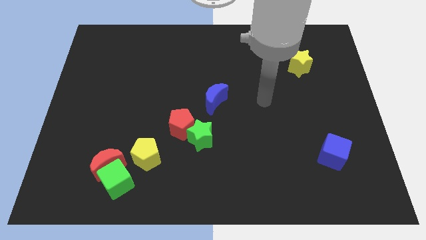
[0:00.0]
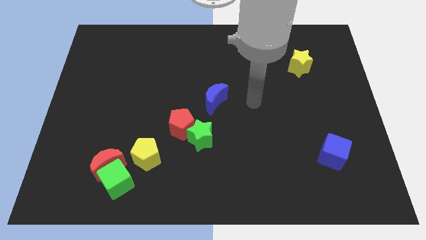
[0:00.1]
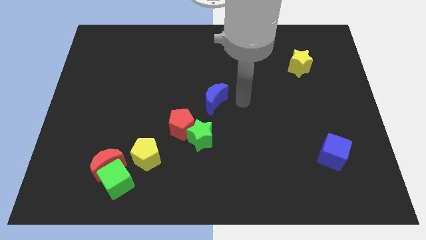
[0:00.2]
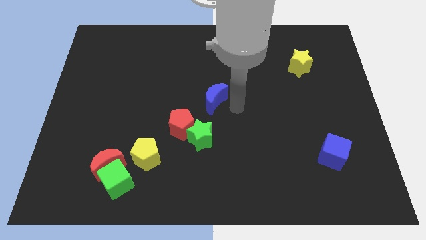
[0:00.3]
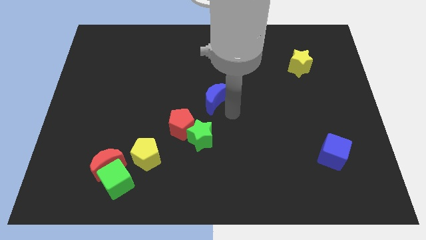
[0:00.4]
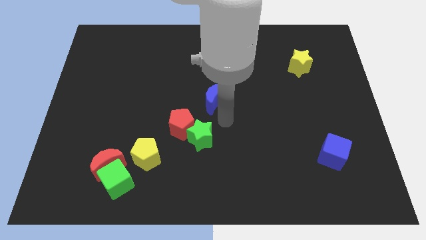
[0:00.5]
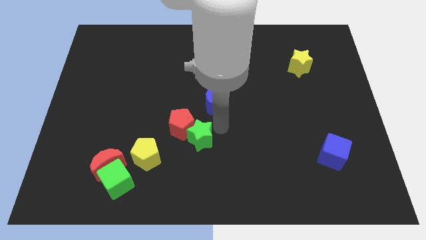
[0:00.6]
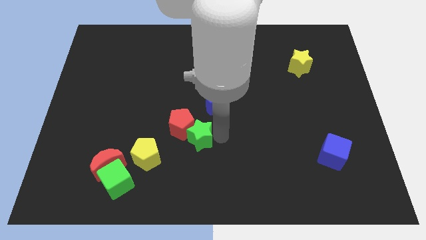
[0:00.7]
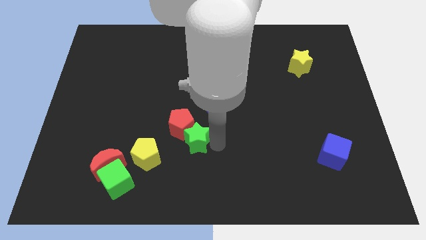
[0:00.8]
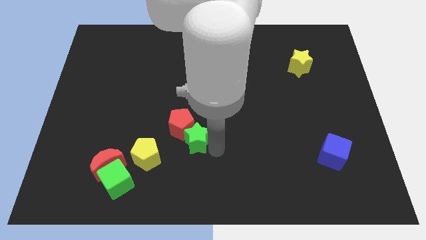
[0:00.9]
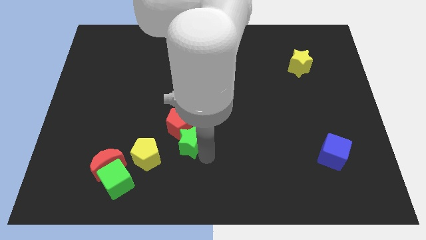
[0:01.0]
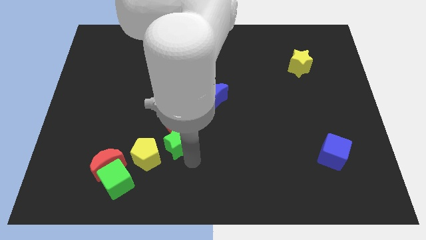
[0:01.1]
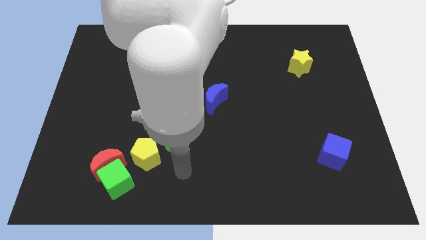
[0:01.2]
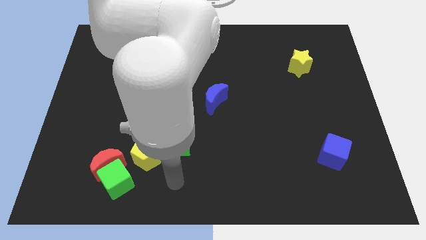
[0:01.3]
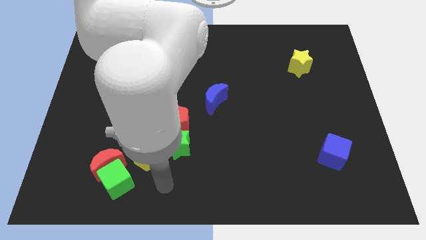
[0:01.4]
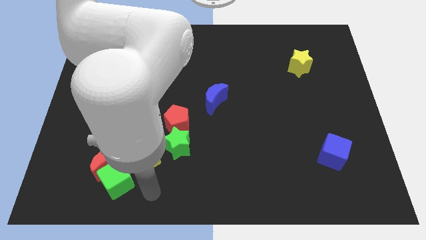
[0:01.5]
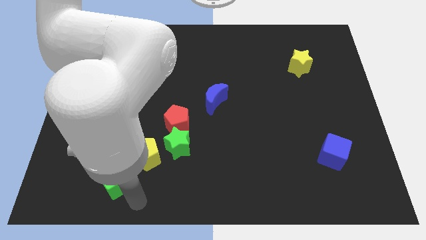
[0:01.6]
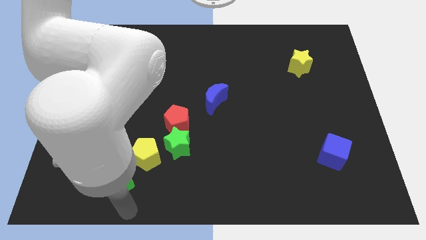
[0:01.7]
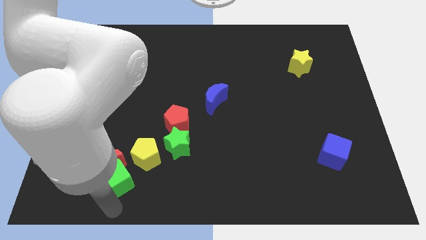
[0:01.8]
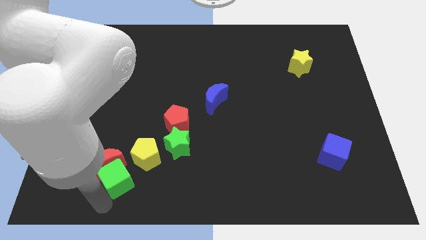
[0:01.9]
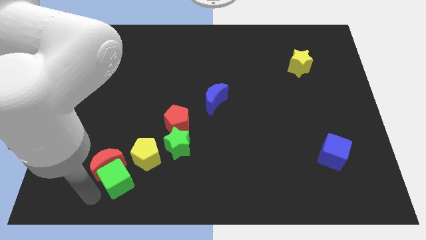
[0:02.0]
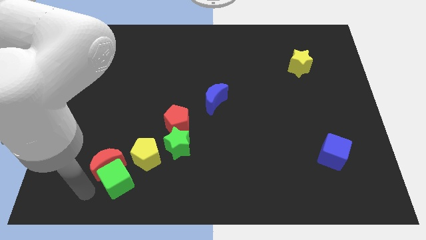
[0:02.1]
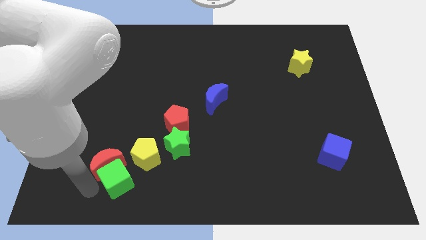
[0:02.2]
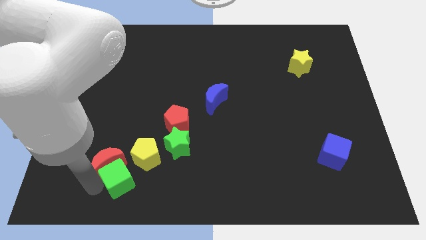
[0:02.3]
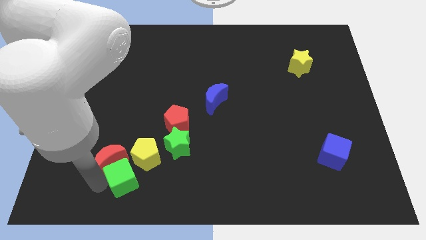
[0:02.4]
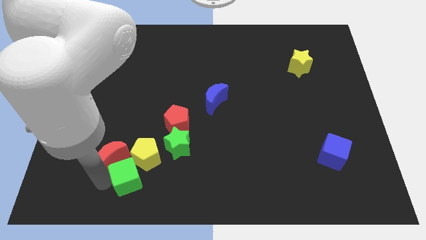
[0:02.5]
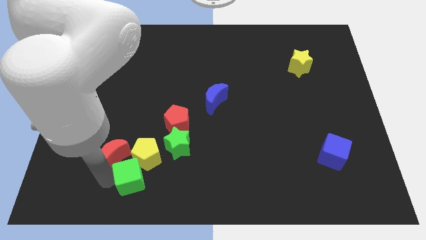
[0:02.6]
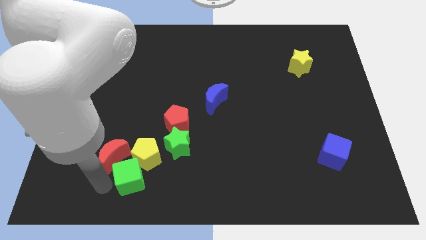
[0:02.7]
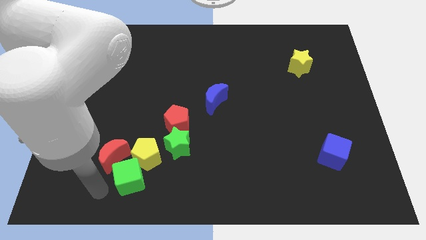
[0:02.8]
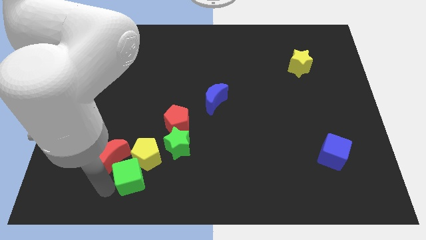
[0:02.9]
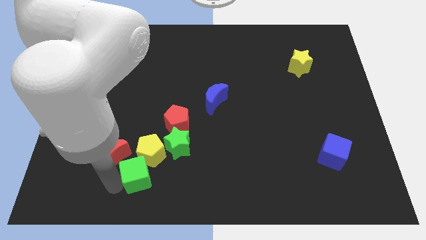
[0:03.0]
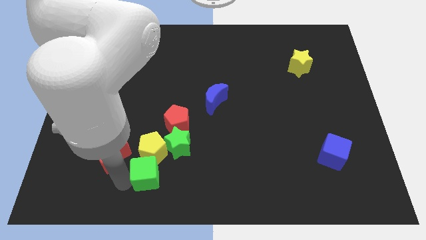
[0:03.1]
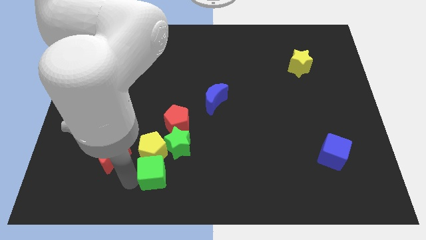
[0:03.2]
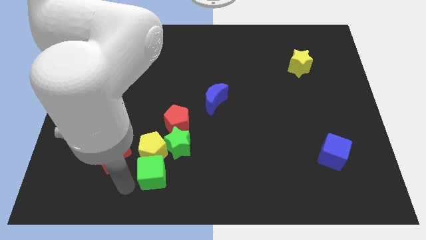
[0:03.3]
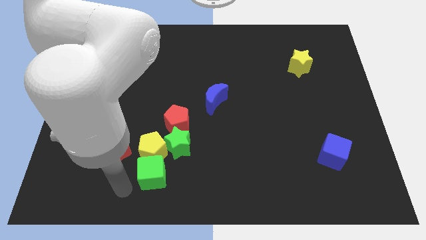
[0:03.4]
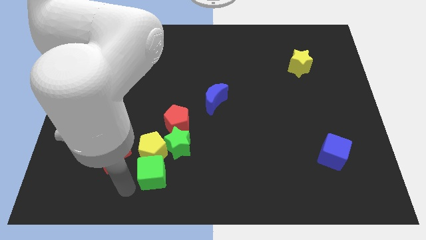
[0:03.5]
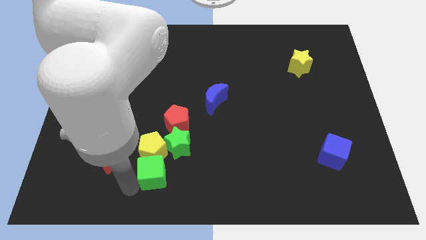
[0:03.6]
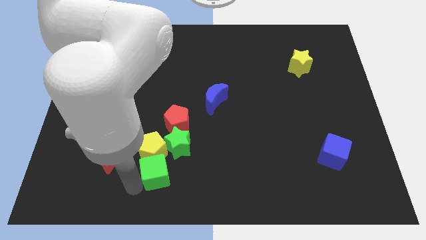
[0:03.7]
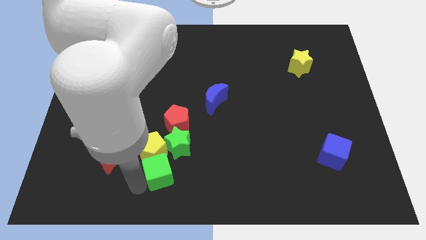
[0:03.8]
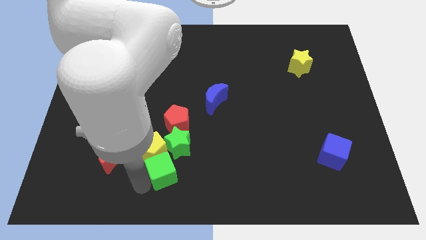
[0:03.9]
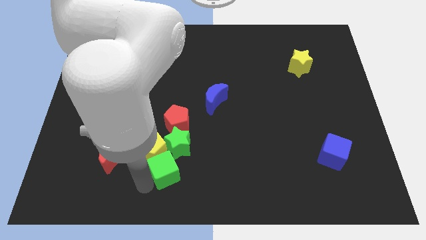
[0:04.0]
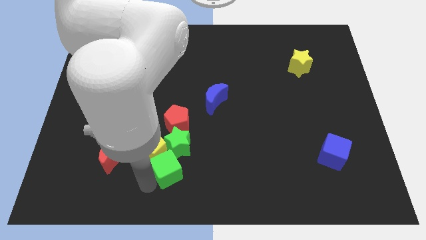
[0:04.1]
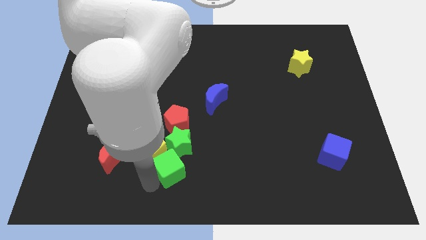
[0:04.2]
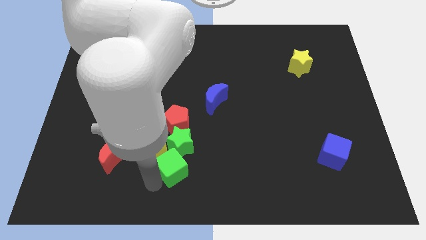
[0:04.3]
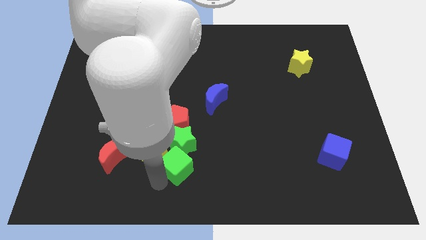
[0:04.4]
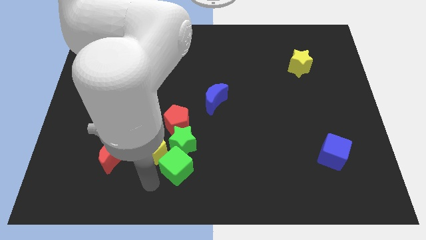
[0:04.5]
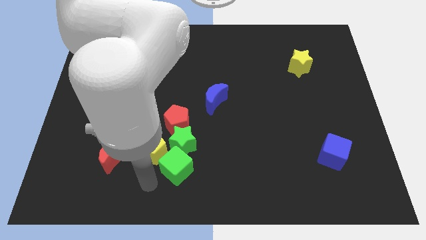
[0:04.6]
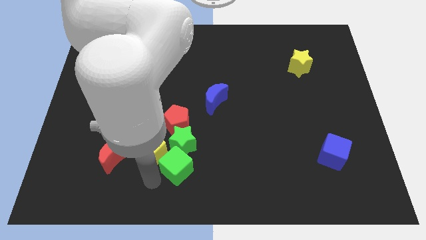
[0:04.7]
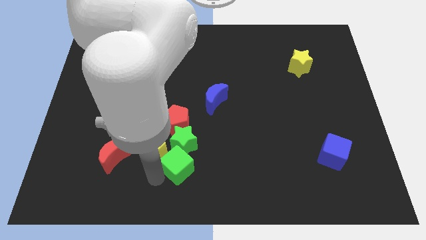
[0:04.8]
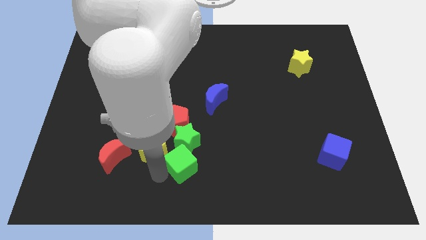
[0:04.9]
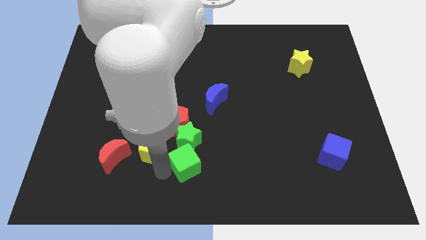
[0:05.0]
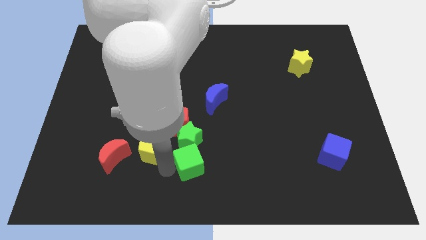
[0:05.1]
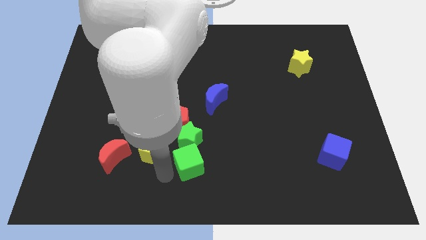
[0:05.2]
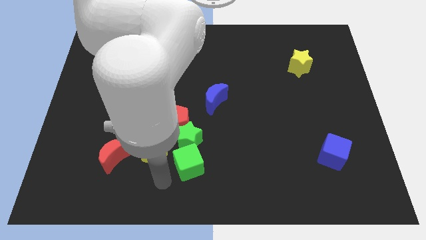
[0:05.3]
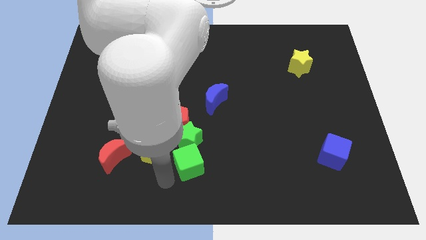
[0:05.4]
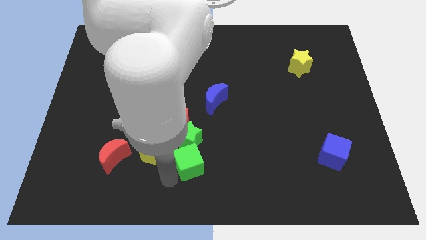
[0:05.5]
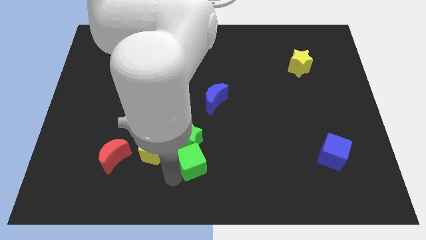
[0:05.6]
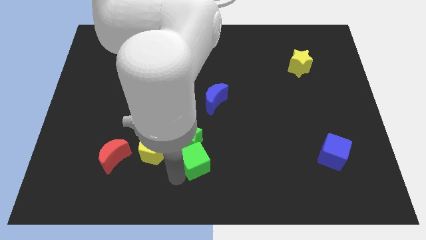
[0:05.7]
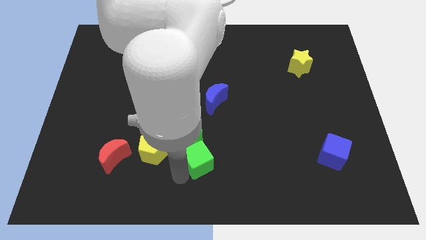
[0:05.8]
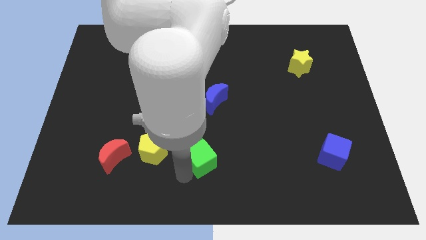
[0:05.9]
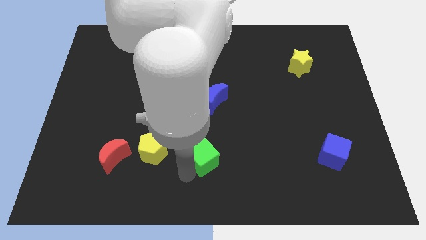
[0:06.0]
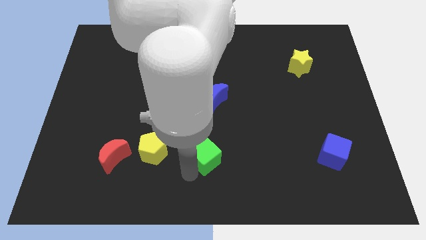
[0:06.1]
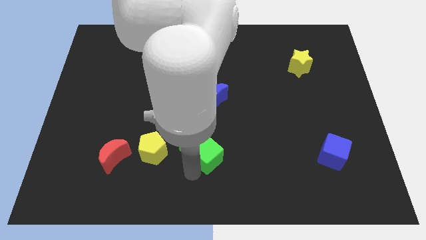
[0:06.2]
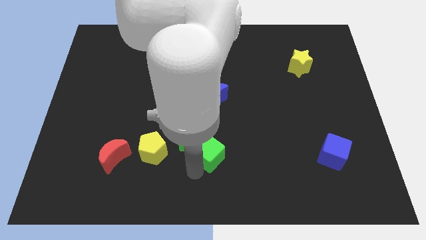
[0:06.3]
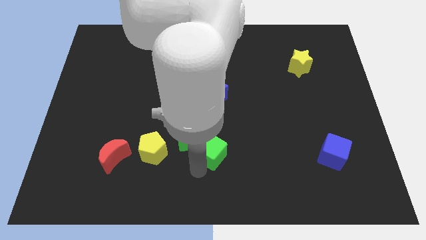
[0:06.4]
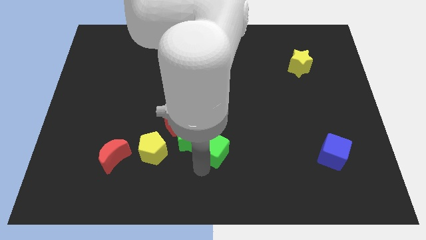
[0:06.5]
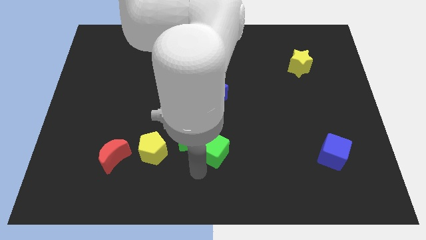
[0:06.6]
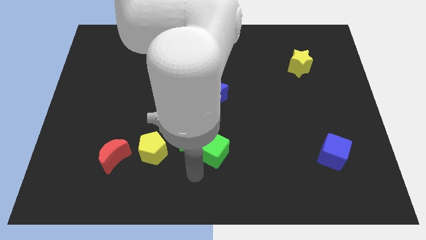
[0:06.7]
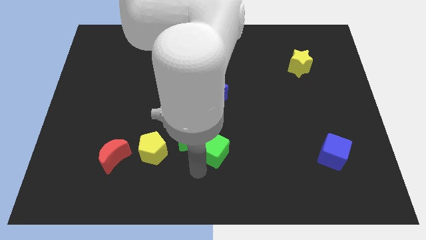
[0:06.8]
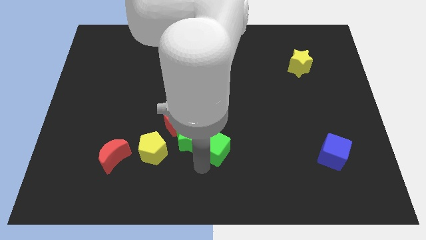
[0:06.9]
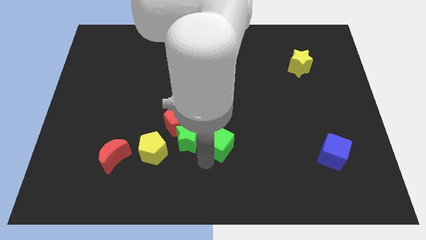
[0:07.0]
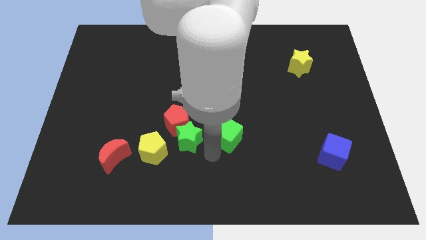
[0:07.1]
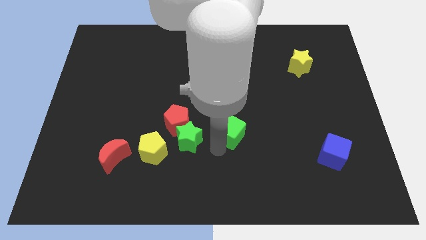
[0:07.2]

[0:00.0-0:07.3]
slide the green cube diagonally down and to the right of the blue moon
